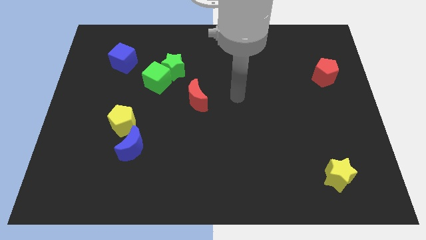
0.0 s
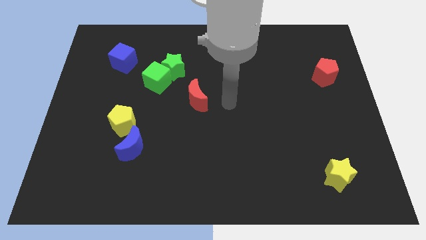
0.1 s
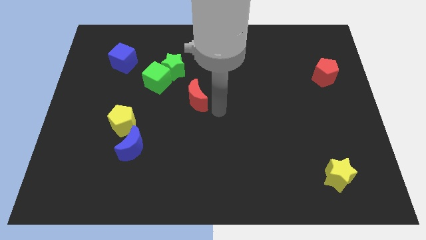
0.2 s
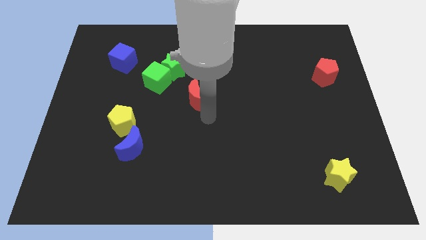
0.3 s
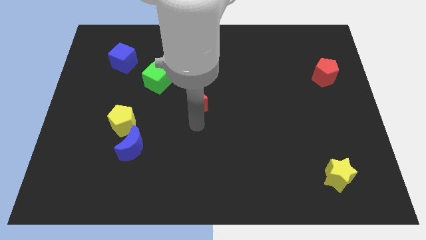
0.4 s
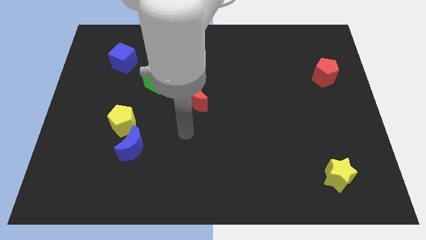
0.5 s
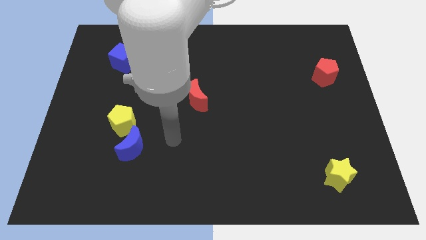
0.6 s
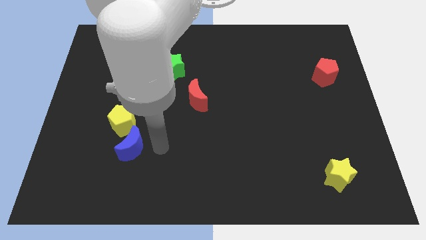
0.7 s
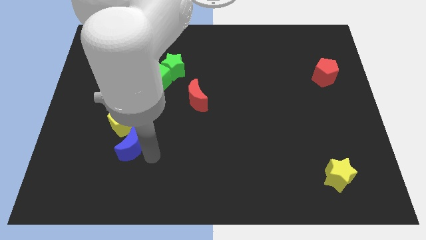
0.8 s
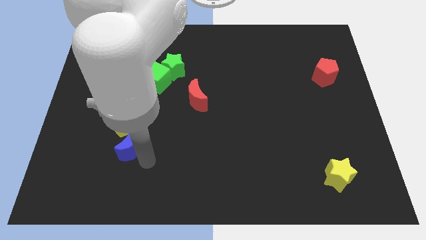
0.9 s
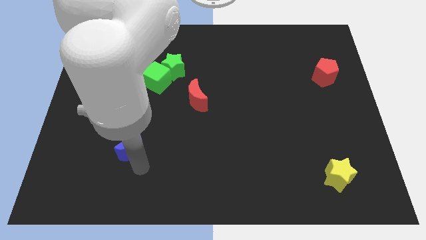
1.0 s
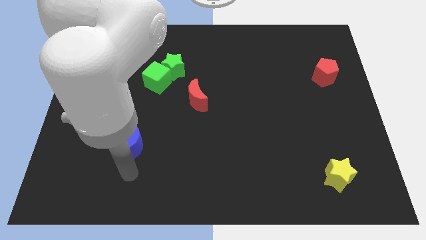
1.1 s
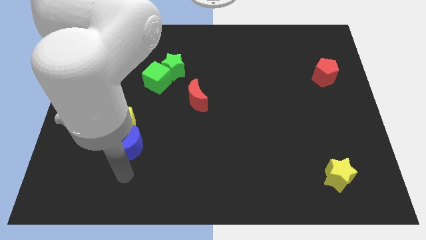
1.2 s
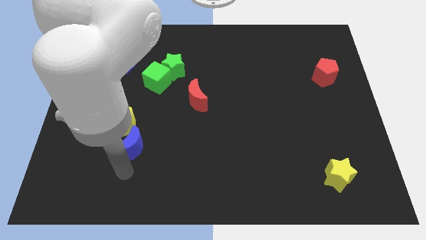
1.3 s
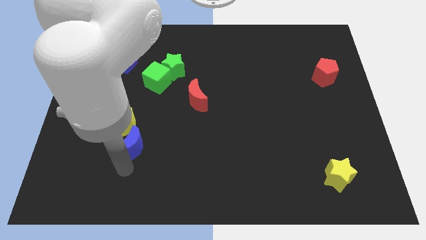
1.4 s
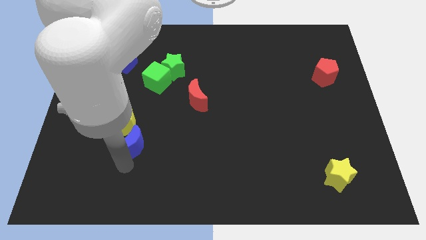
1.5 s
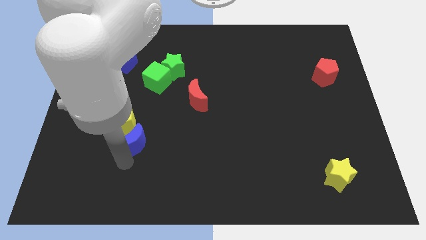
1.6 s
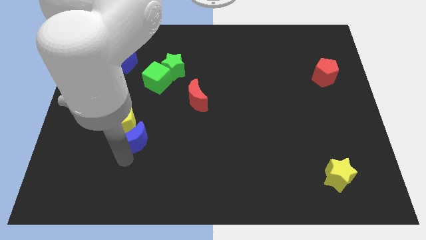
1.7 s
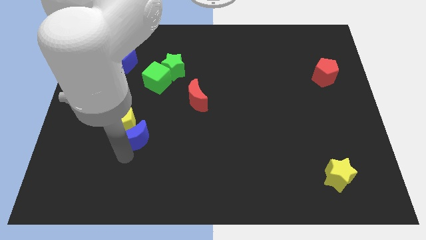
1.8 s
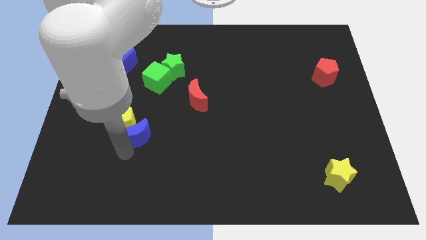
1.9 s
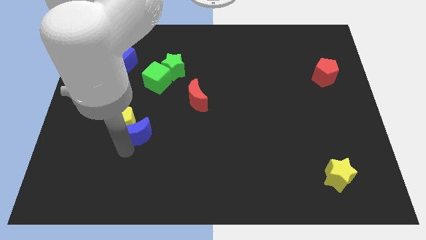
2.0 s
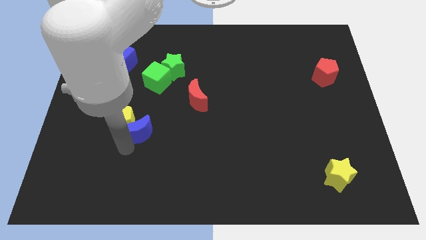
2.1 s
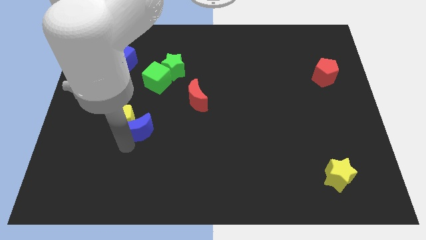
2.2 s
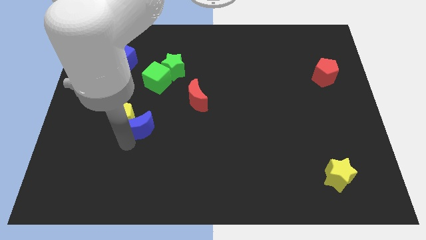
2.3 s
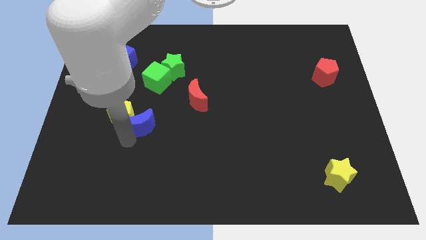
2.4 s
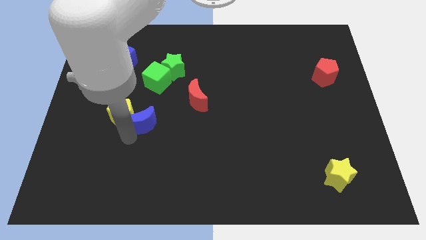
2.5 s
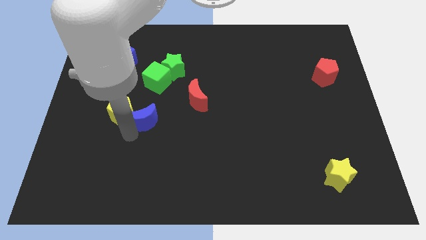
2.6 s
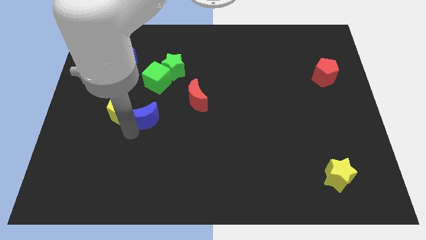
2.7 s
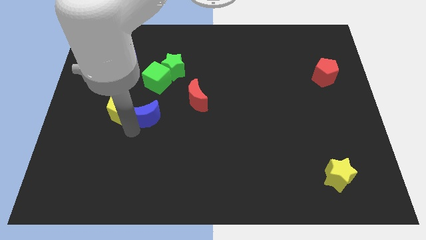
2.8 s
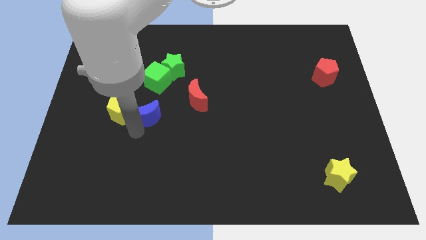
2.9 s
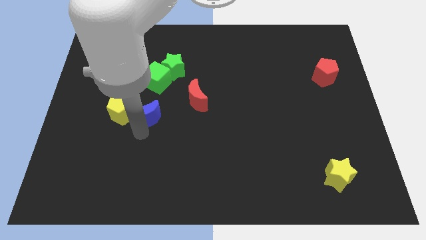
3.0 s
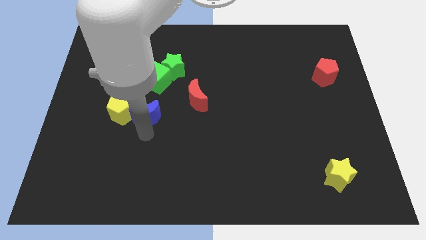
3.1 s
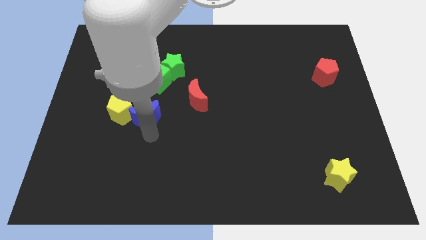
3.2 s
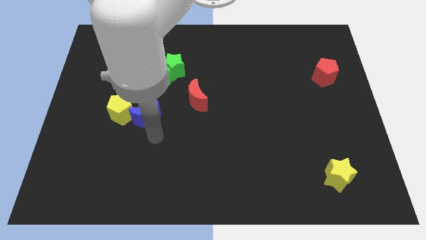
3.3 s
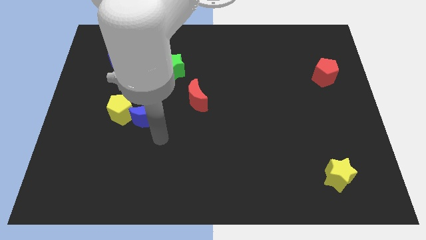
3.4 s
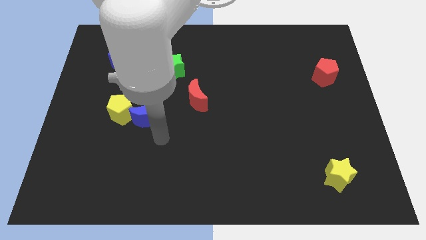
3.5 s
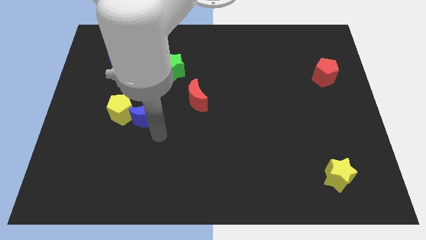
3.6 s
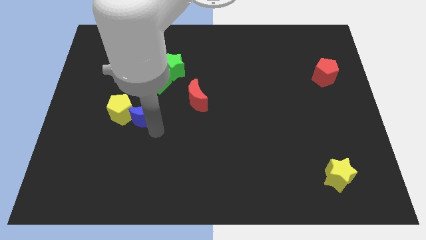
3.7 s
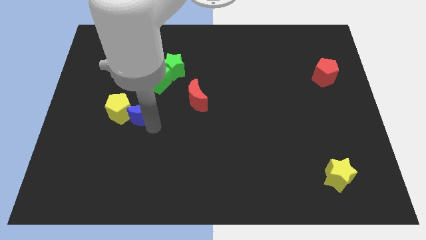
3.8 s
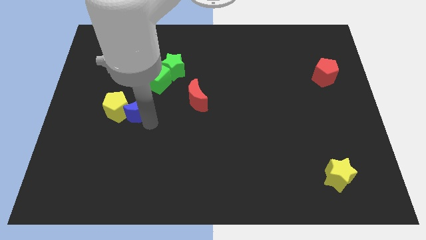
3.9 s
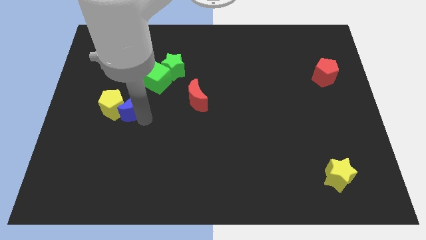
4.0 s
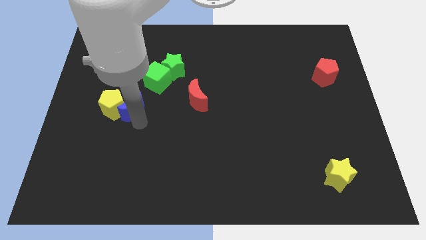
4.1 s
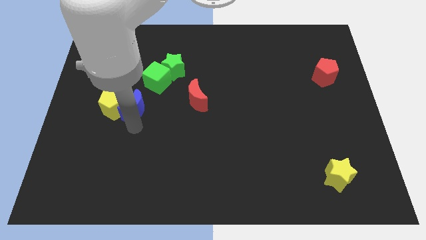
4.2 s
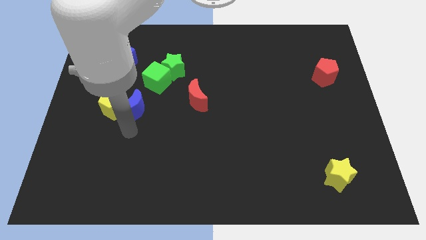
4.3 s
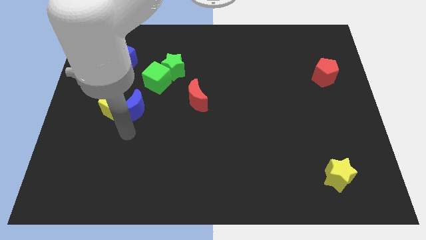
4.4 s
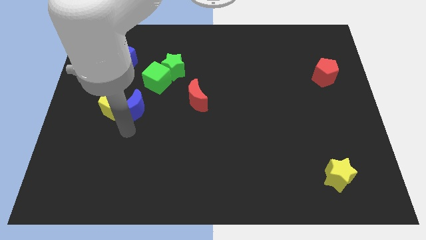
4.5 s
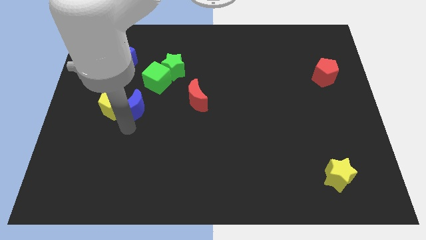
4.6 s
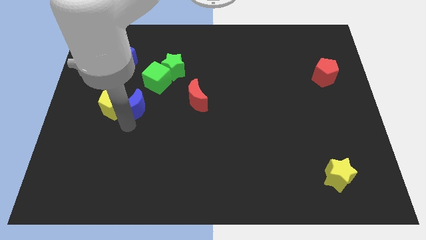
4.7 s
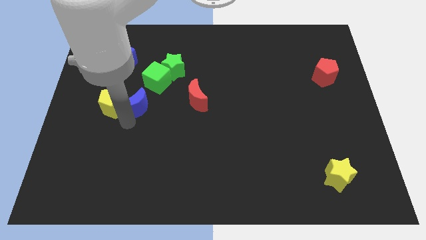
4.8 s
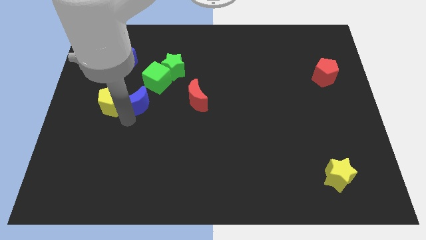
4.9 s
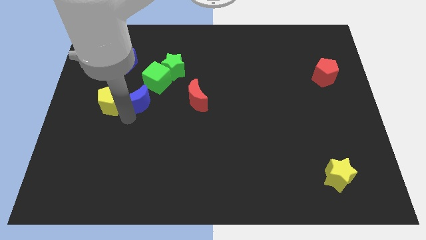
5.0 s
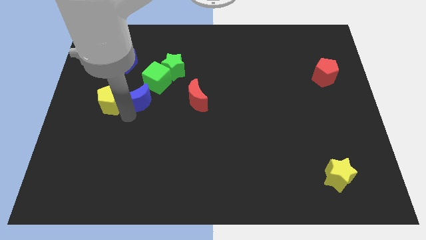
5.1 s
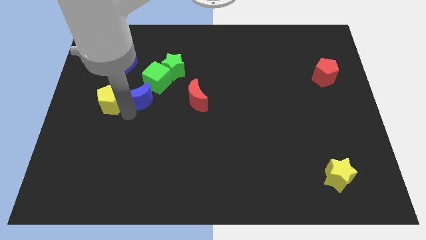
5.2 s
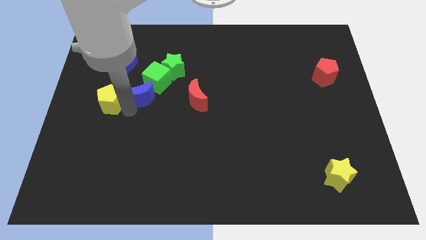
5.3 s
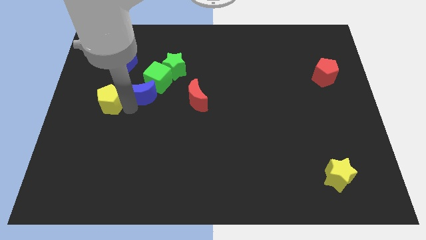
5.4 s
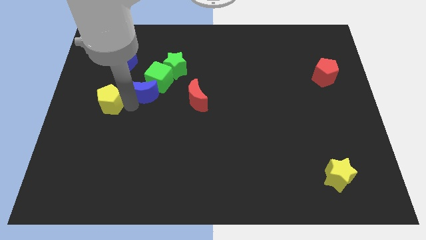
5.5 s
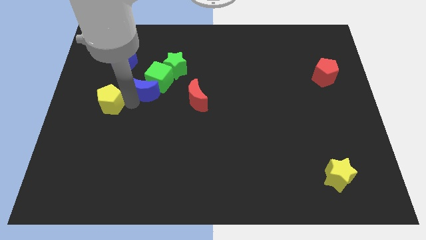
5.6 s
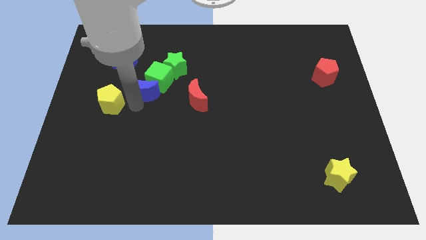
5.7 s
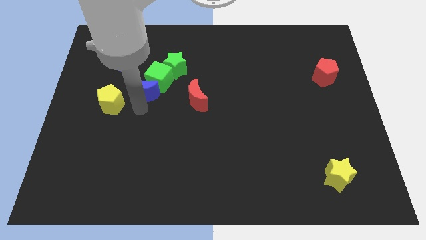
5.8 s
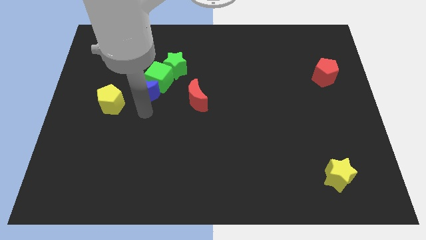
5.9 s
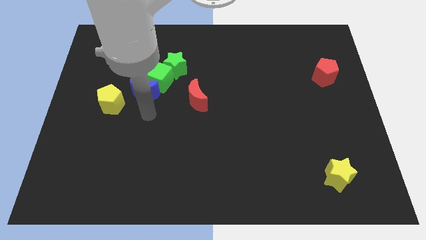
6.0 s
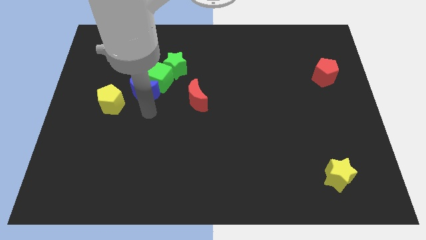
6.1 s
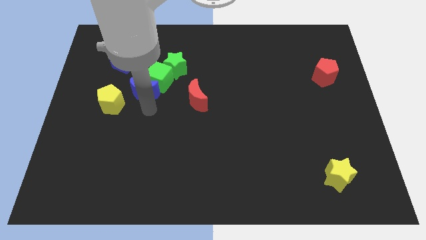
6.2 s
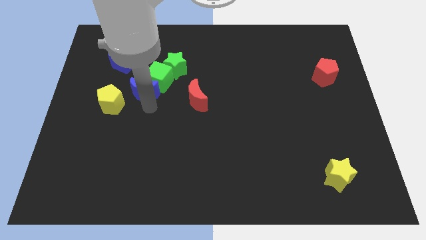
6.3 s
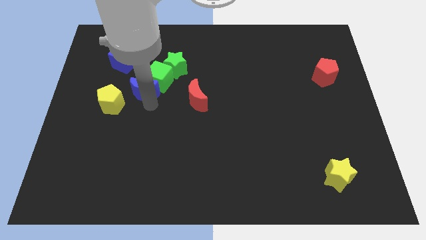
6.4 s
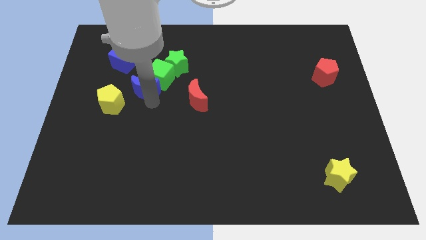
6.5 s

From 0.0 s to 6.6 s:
put the blue moon diagonally down and to the right of the blue cube
